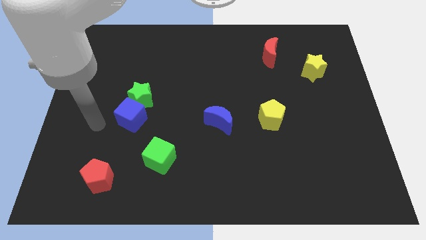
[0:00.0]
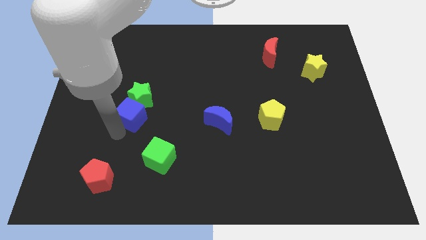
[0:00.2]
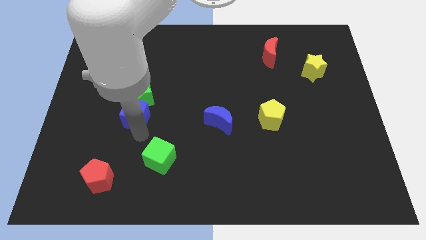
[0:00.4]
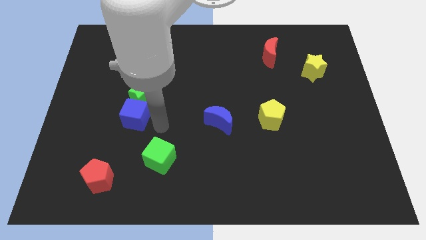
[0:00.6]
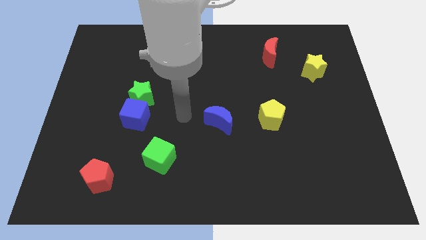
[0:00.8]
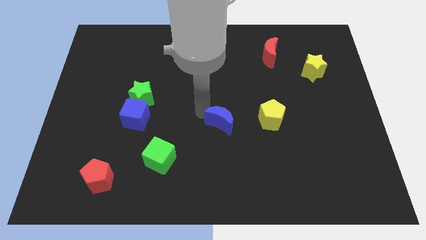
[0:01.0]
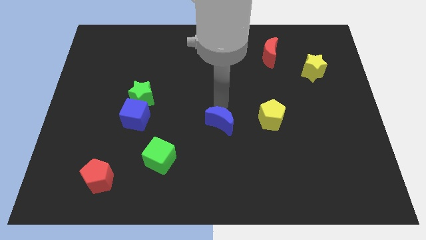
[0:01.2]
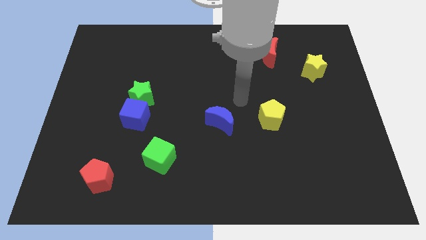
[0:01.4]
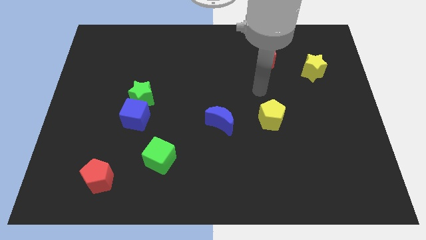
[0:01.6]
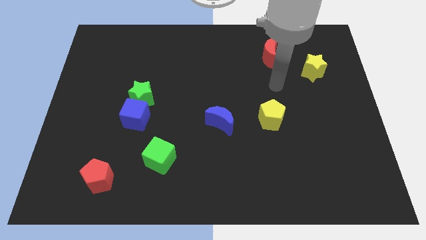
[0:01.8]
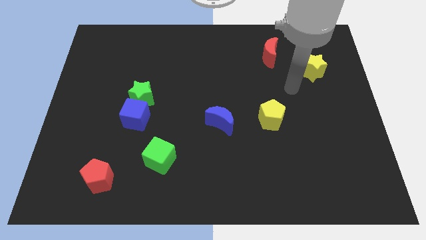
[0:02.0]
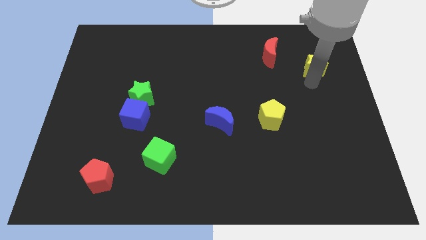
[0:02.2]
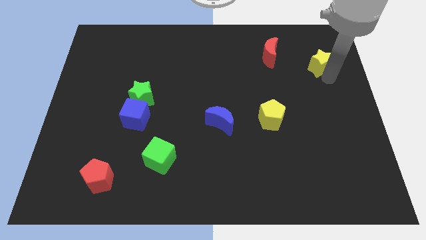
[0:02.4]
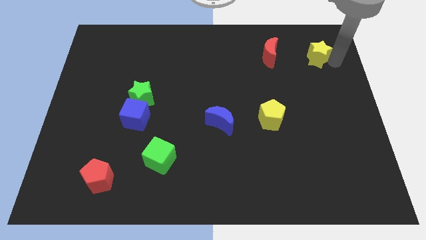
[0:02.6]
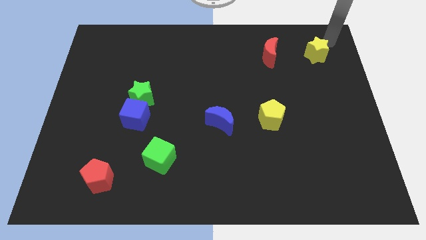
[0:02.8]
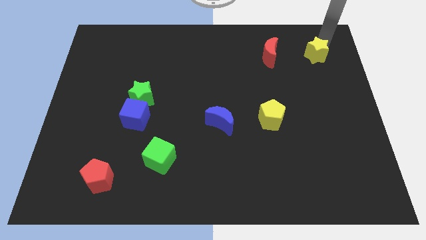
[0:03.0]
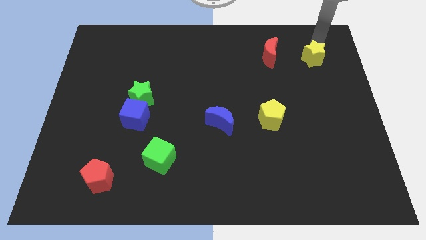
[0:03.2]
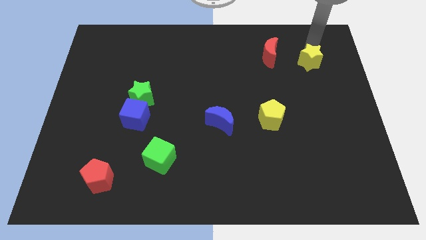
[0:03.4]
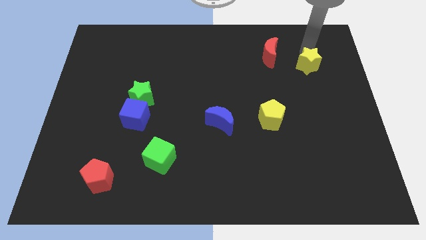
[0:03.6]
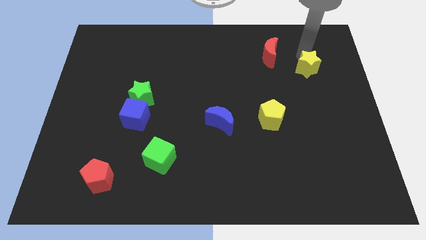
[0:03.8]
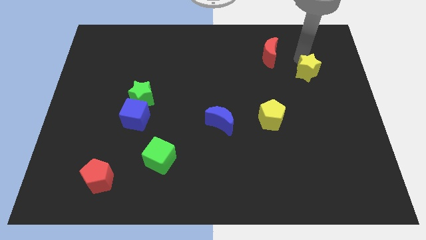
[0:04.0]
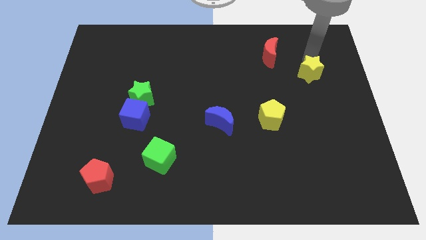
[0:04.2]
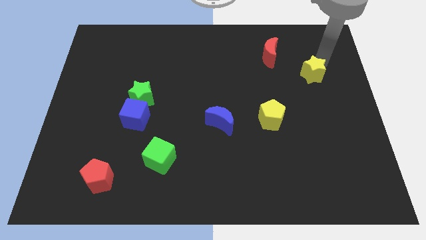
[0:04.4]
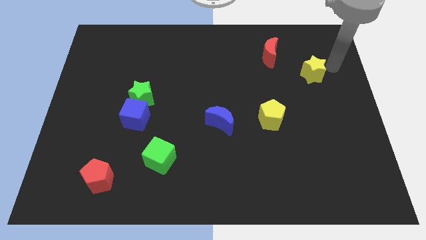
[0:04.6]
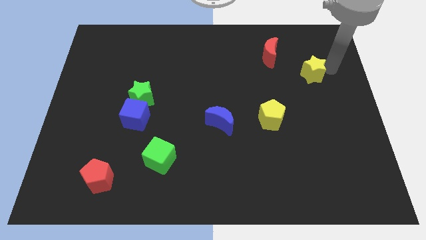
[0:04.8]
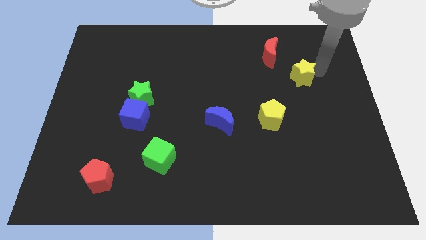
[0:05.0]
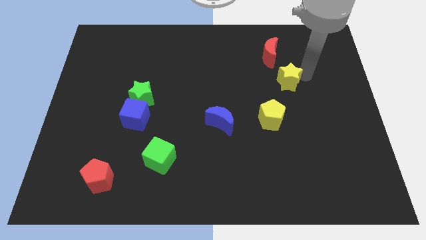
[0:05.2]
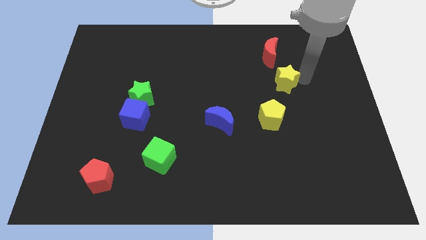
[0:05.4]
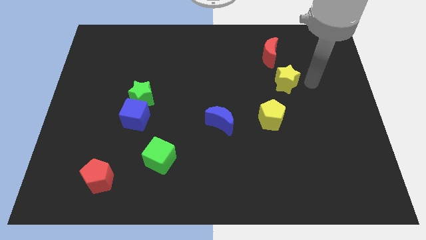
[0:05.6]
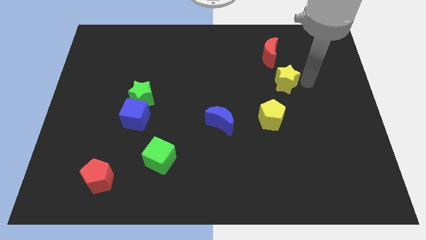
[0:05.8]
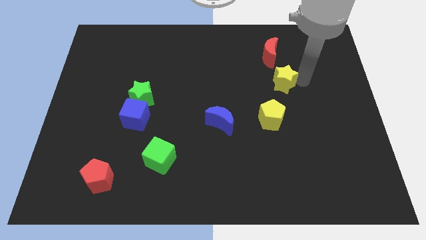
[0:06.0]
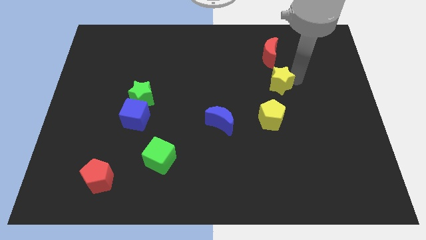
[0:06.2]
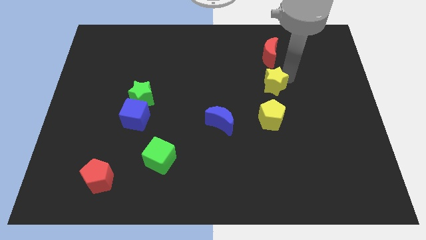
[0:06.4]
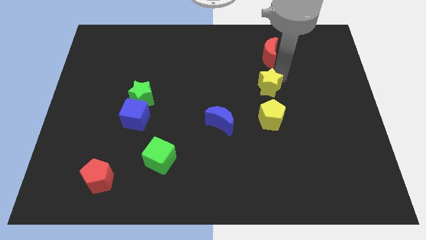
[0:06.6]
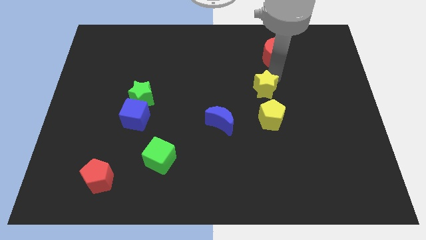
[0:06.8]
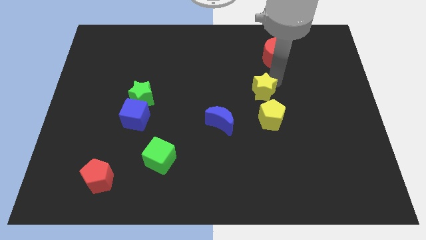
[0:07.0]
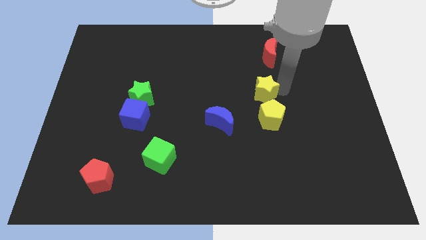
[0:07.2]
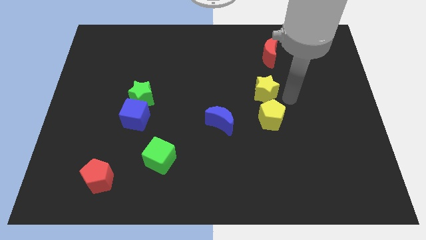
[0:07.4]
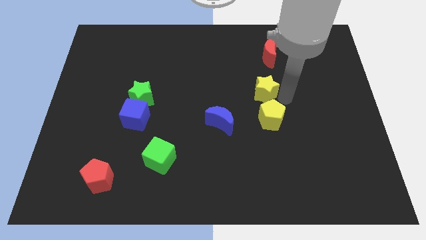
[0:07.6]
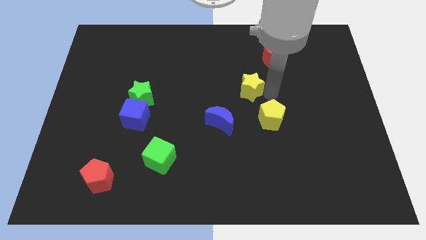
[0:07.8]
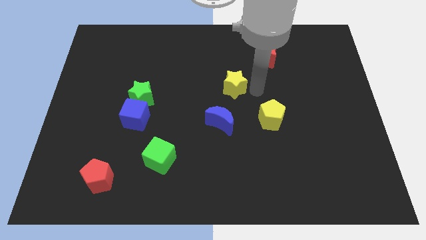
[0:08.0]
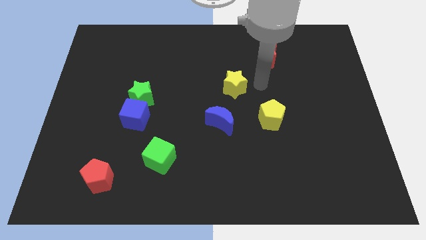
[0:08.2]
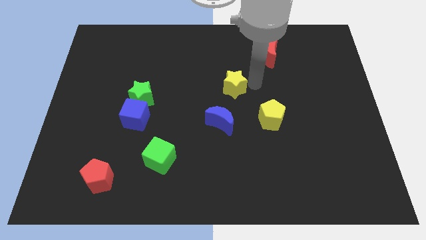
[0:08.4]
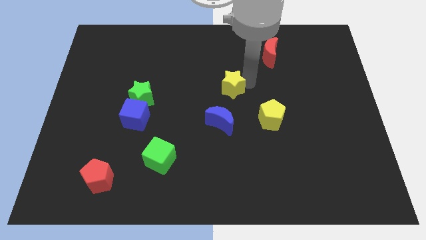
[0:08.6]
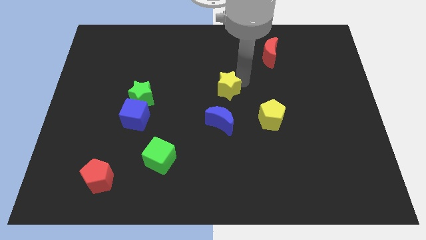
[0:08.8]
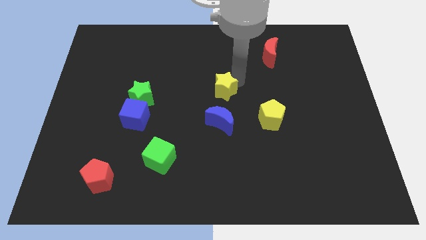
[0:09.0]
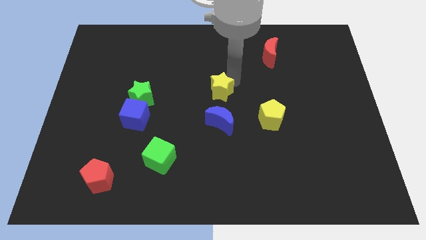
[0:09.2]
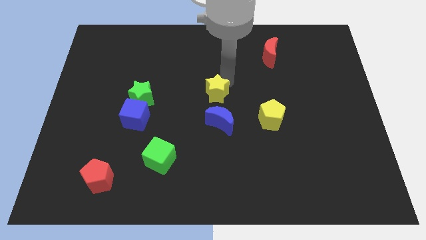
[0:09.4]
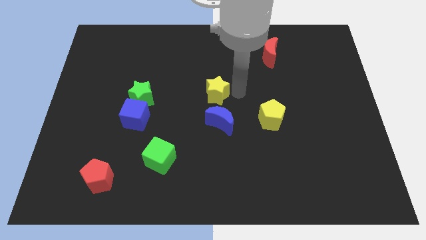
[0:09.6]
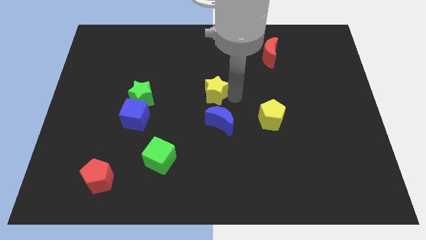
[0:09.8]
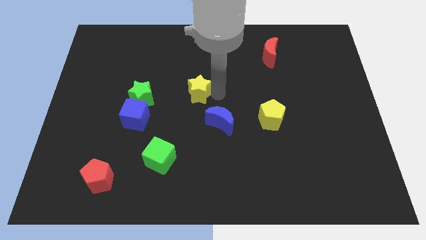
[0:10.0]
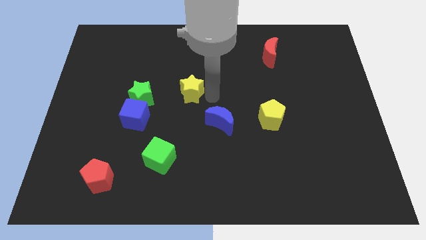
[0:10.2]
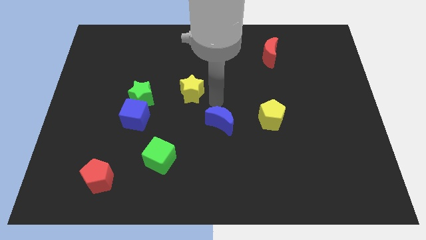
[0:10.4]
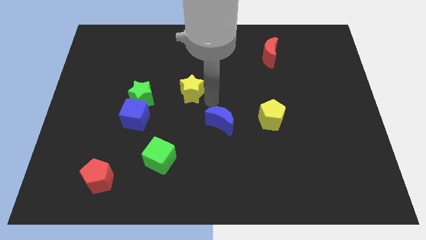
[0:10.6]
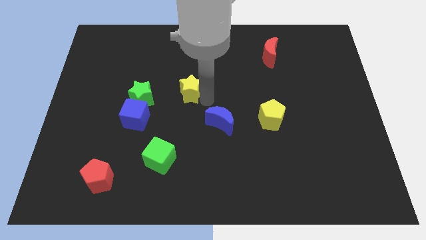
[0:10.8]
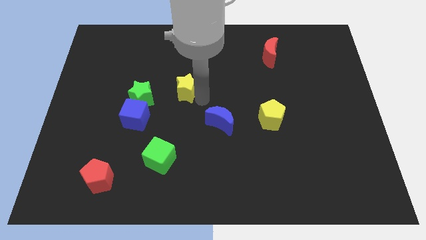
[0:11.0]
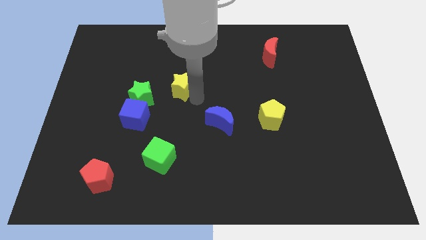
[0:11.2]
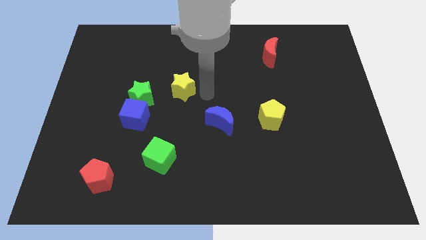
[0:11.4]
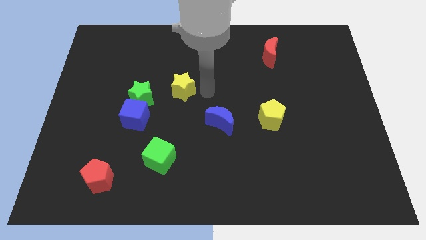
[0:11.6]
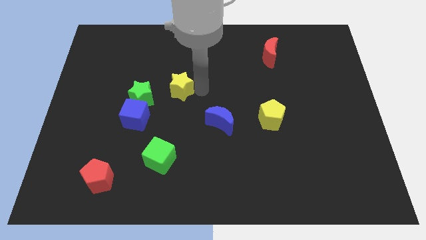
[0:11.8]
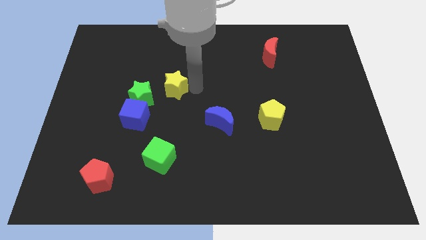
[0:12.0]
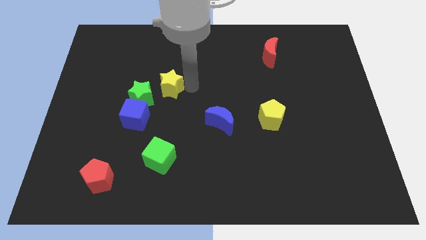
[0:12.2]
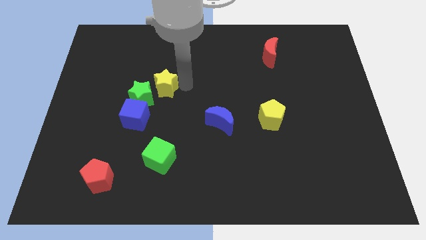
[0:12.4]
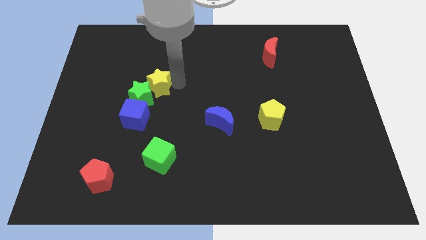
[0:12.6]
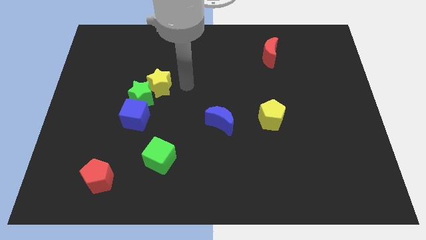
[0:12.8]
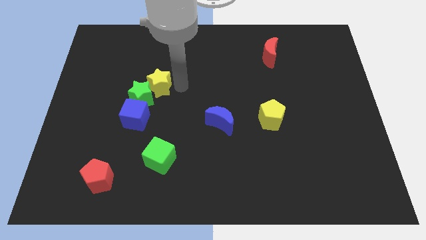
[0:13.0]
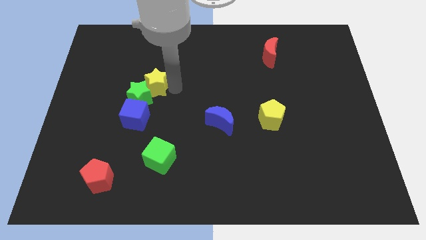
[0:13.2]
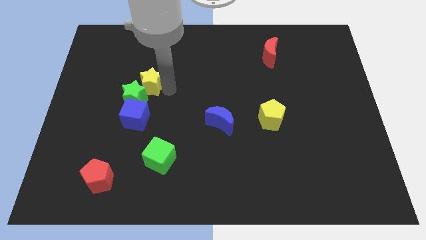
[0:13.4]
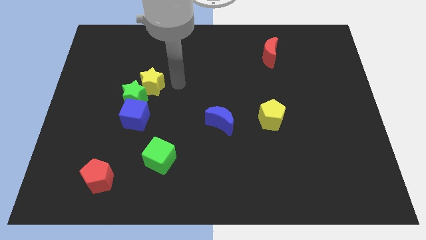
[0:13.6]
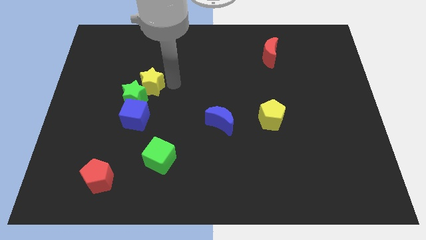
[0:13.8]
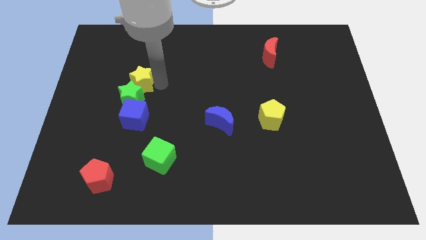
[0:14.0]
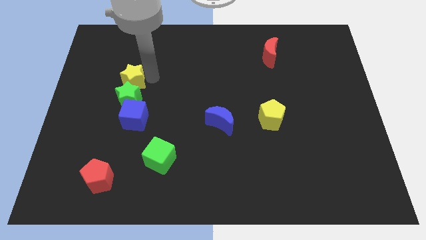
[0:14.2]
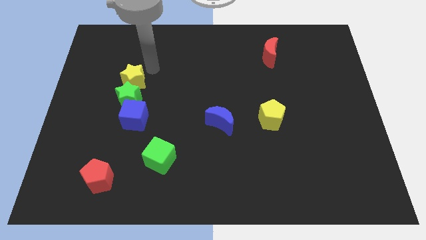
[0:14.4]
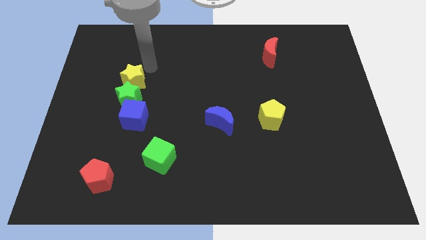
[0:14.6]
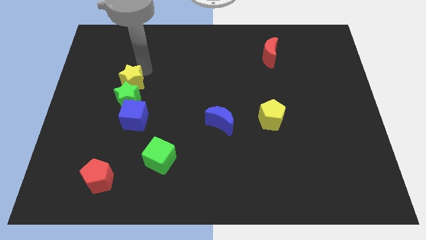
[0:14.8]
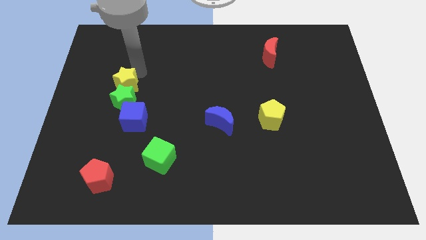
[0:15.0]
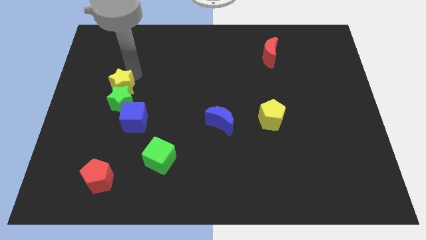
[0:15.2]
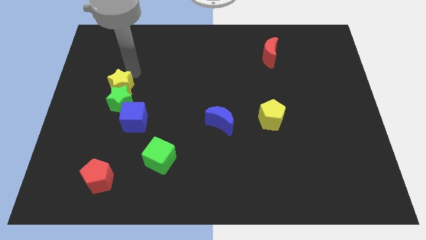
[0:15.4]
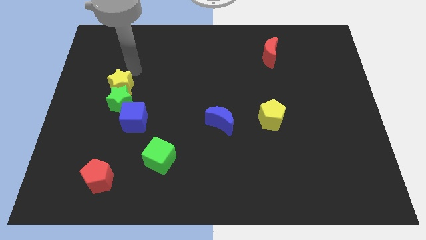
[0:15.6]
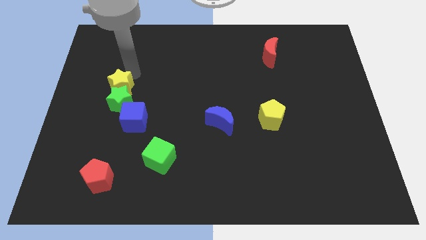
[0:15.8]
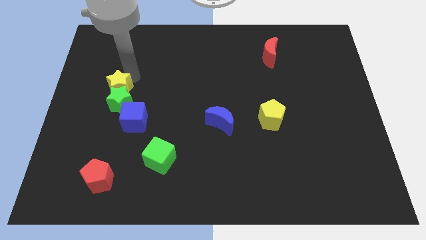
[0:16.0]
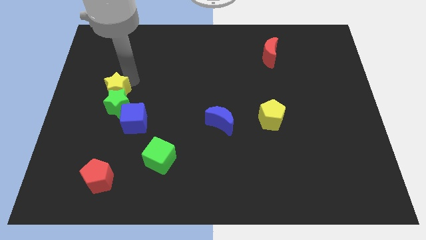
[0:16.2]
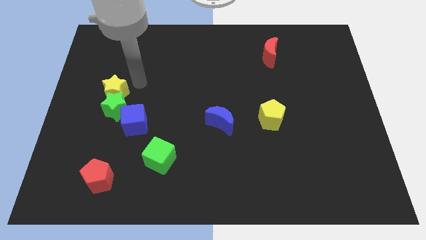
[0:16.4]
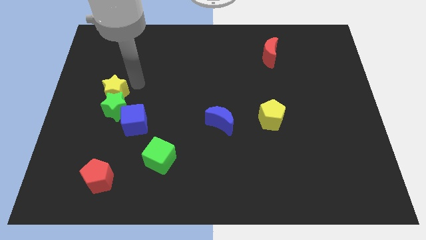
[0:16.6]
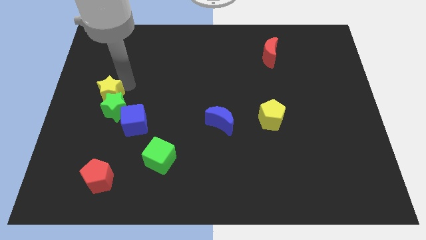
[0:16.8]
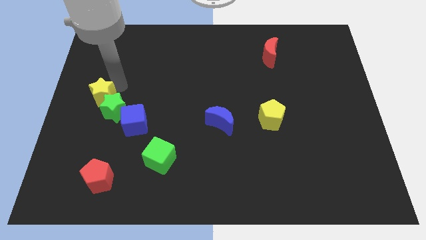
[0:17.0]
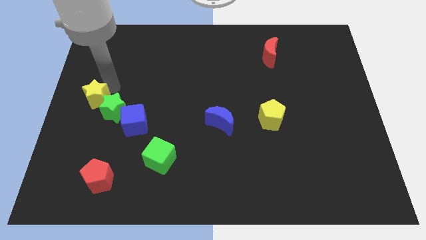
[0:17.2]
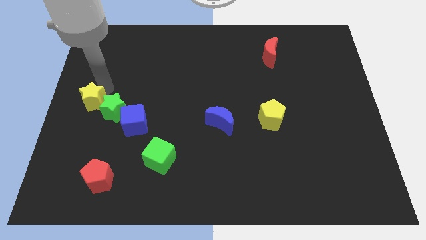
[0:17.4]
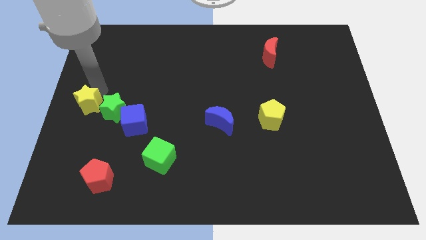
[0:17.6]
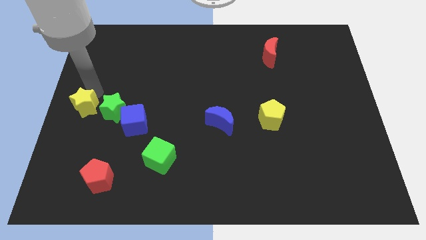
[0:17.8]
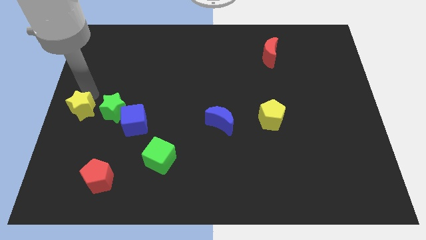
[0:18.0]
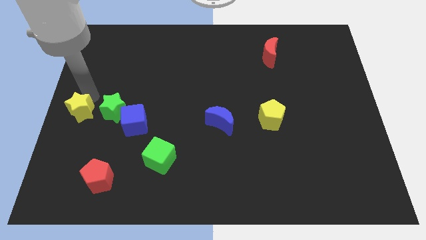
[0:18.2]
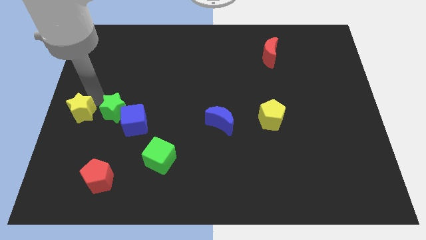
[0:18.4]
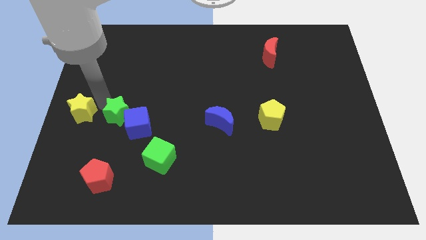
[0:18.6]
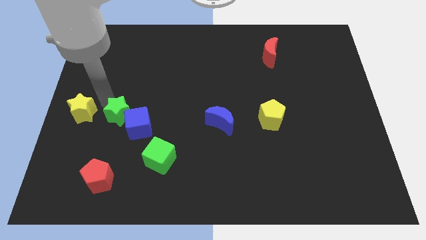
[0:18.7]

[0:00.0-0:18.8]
put the yellow star just left of the green star
